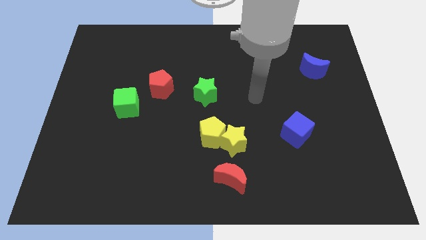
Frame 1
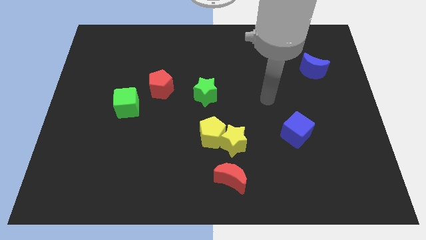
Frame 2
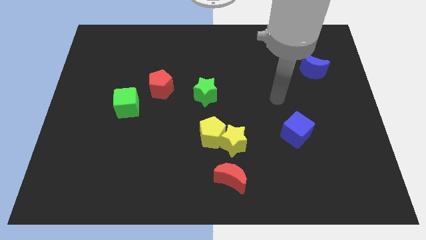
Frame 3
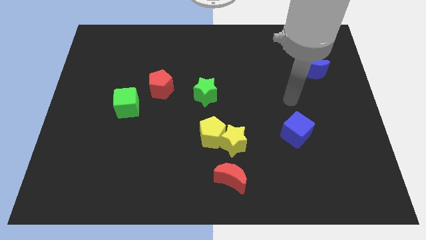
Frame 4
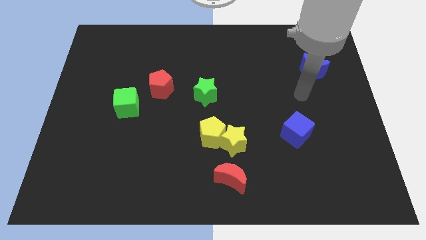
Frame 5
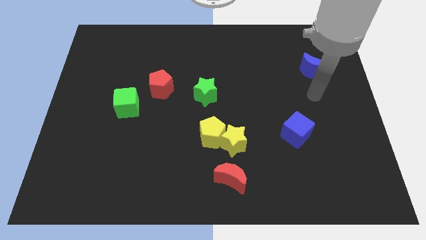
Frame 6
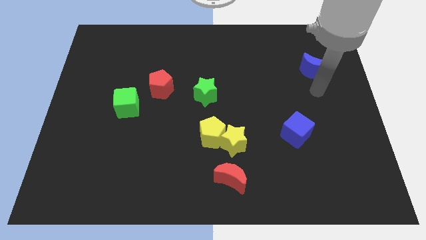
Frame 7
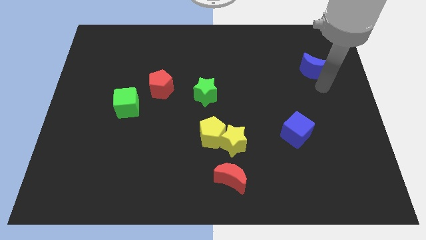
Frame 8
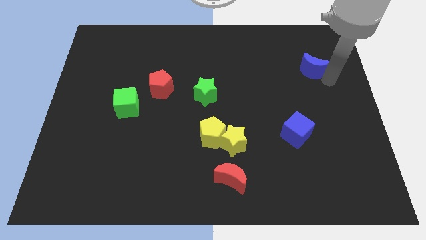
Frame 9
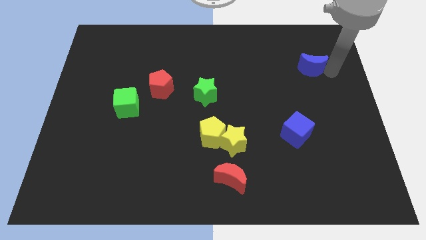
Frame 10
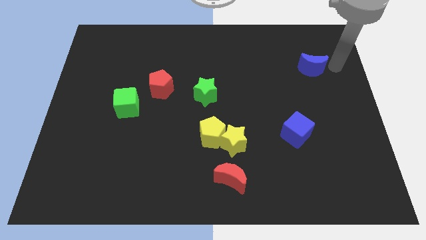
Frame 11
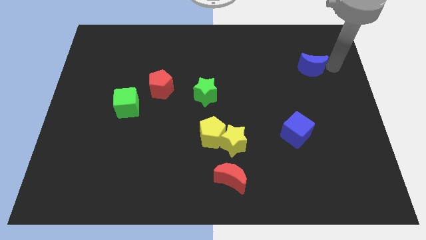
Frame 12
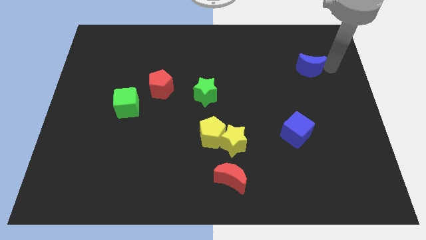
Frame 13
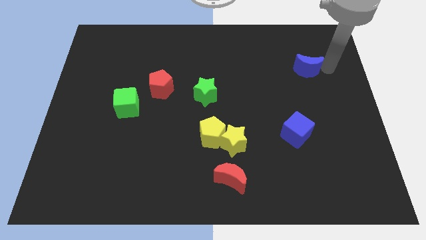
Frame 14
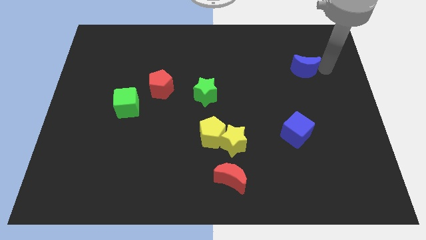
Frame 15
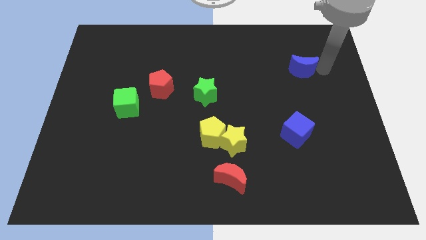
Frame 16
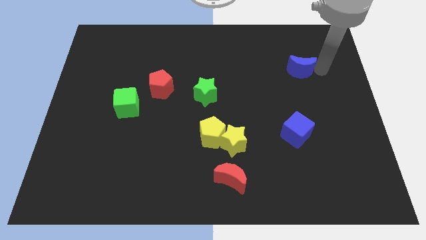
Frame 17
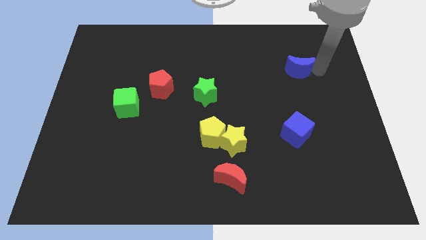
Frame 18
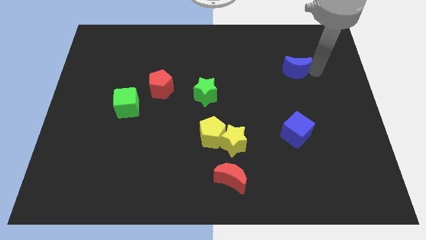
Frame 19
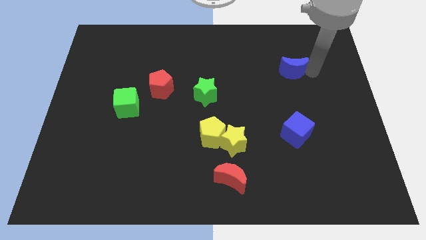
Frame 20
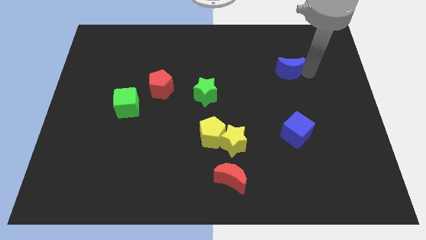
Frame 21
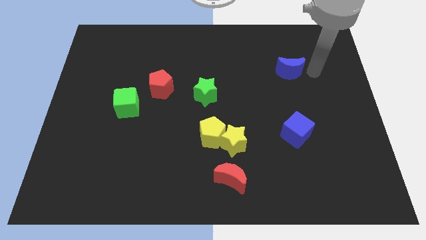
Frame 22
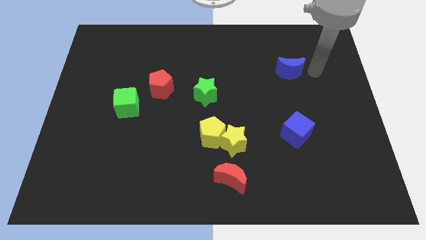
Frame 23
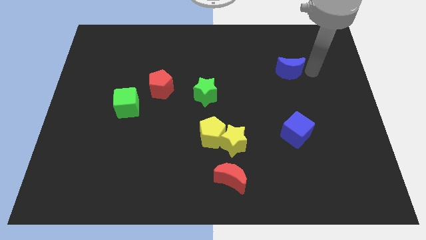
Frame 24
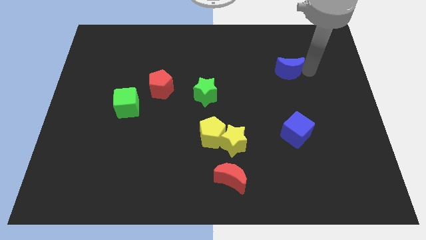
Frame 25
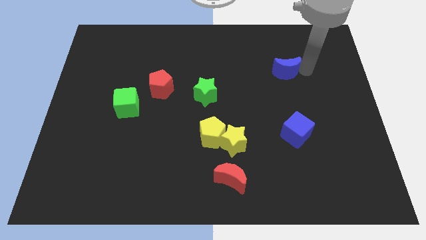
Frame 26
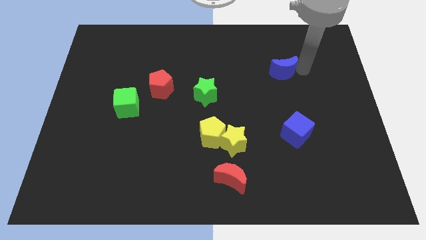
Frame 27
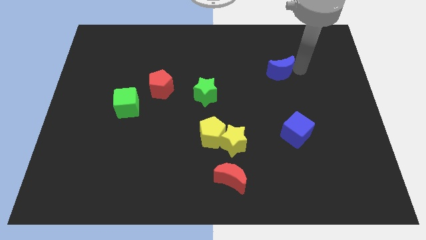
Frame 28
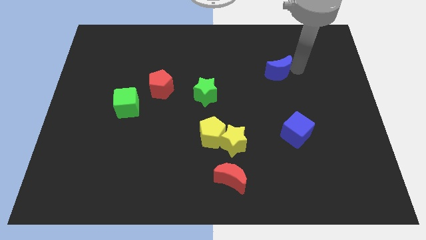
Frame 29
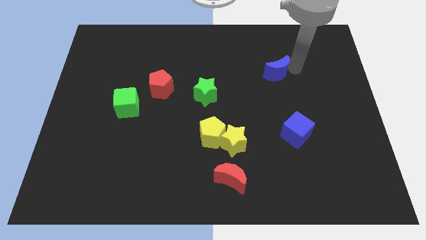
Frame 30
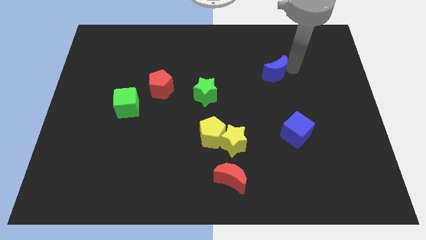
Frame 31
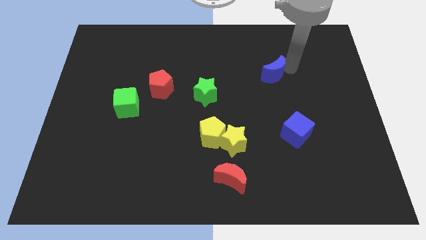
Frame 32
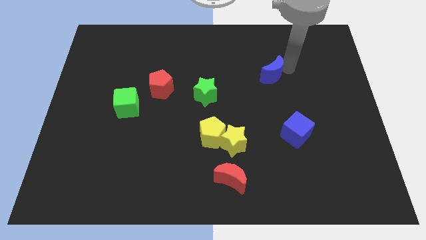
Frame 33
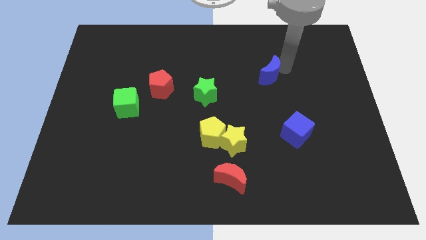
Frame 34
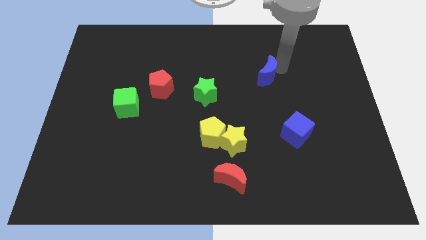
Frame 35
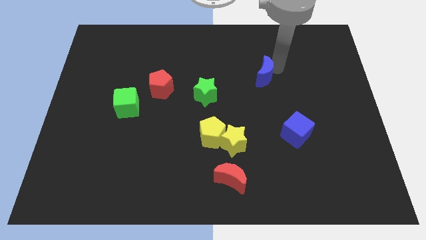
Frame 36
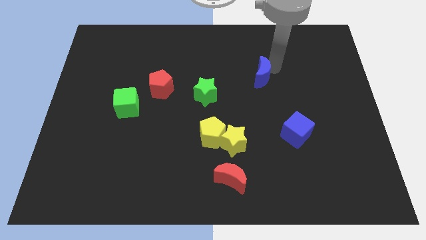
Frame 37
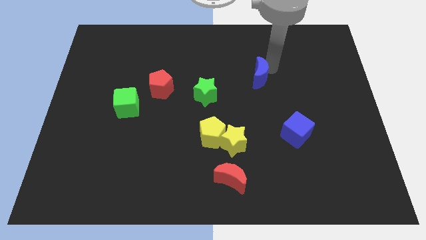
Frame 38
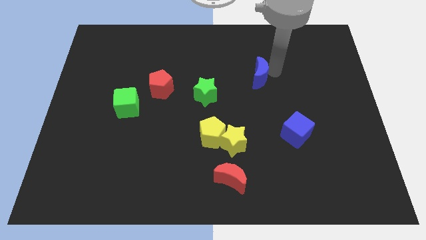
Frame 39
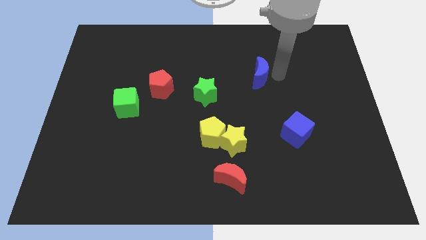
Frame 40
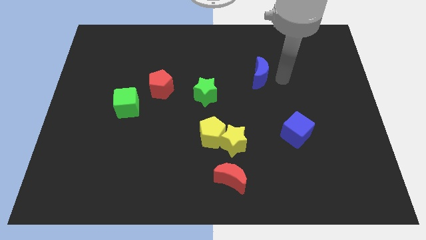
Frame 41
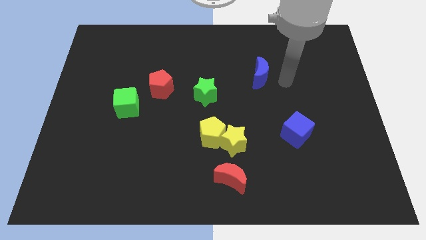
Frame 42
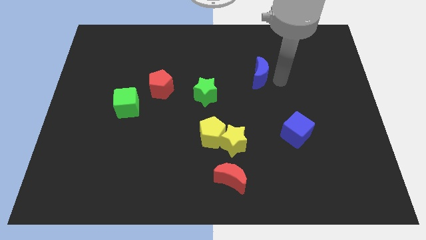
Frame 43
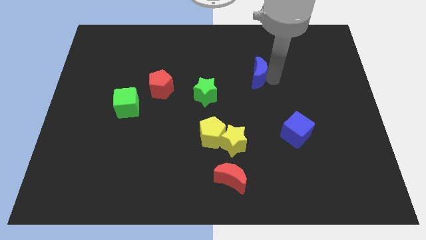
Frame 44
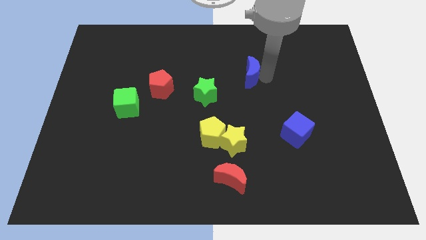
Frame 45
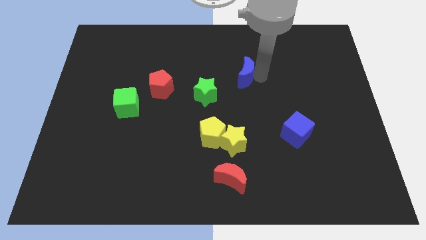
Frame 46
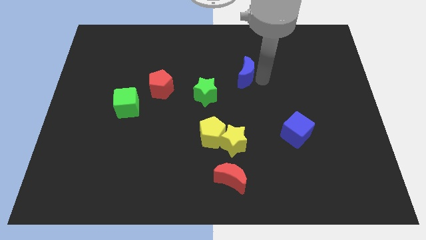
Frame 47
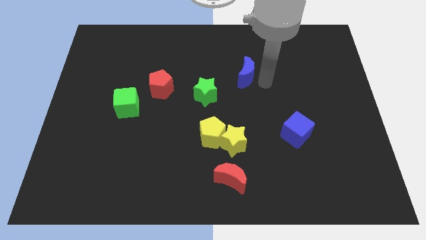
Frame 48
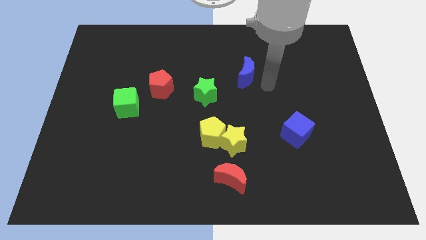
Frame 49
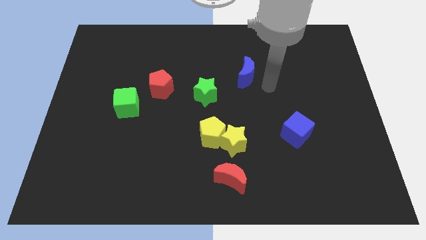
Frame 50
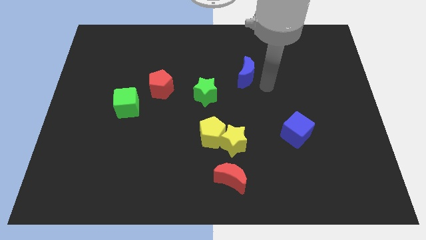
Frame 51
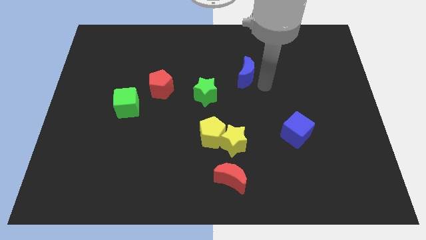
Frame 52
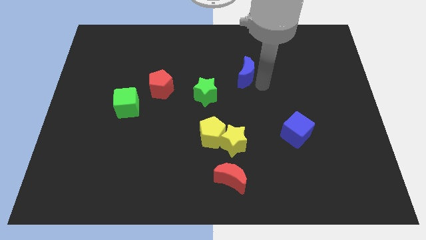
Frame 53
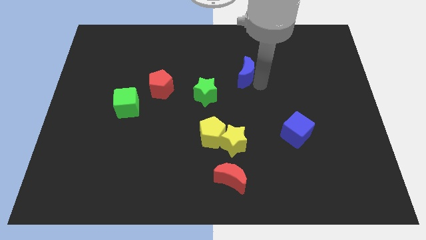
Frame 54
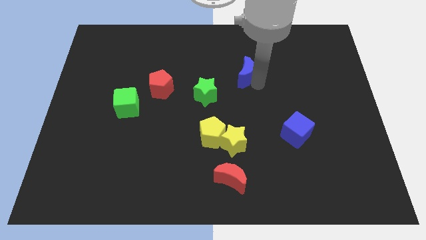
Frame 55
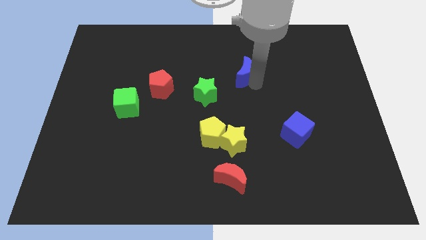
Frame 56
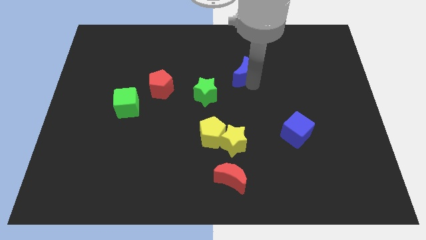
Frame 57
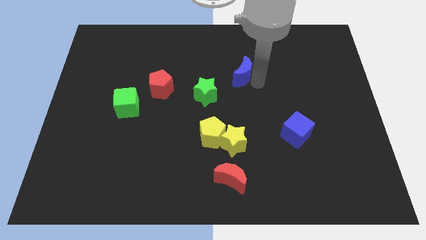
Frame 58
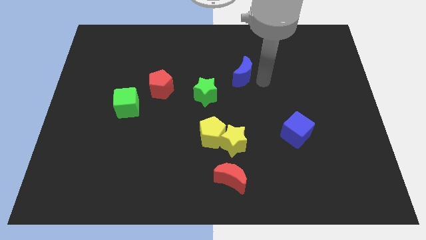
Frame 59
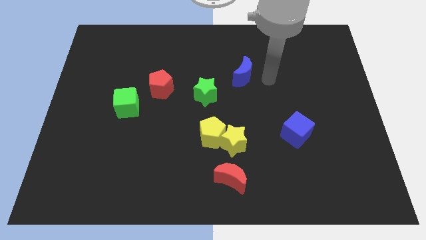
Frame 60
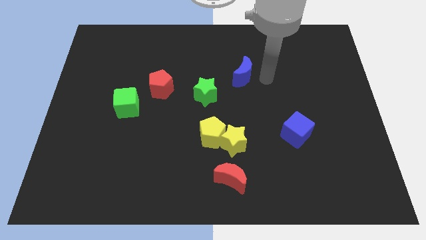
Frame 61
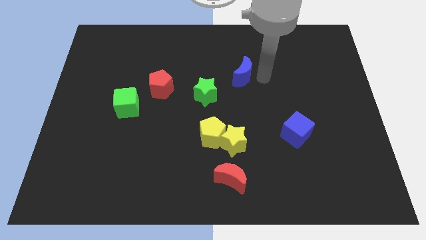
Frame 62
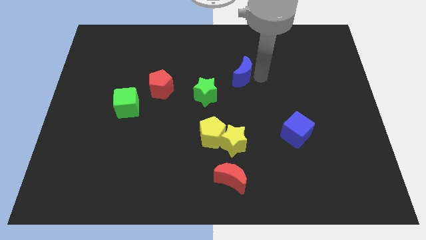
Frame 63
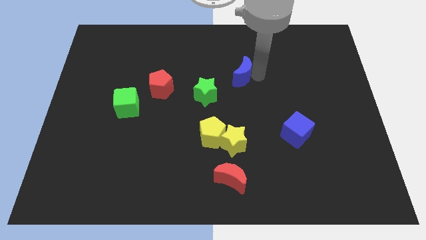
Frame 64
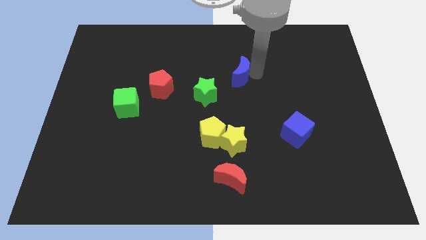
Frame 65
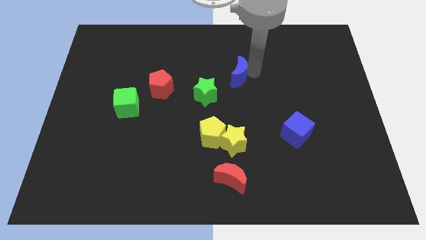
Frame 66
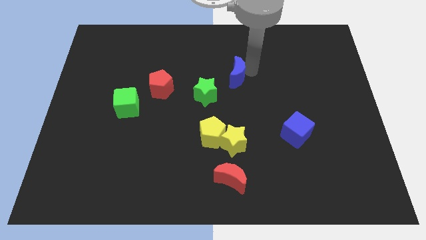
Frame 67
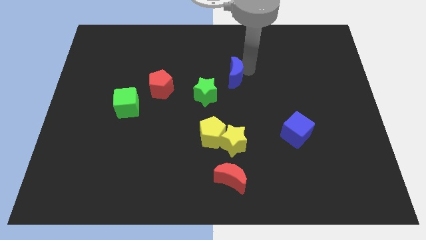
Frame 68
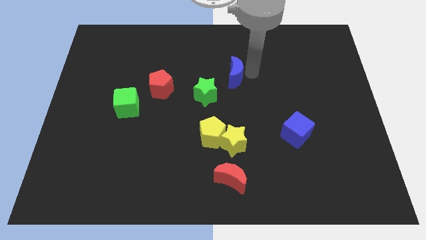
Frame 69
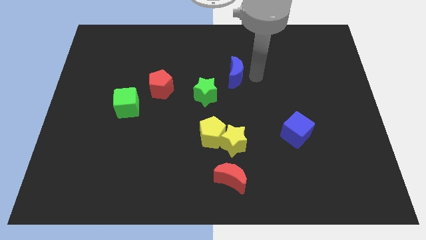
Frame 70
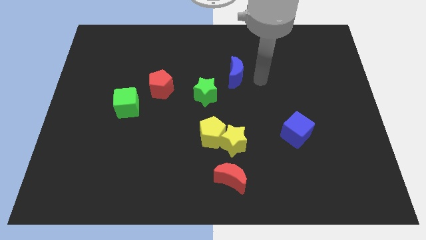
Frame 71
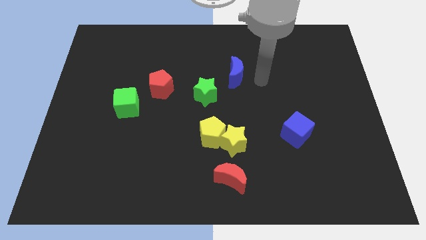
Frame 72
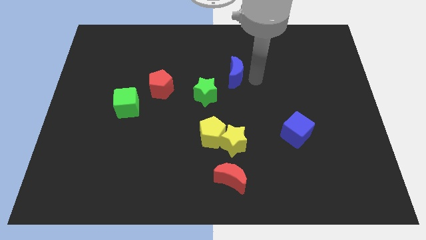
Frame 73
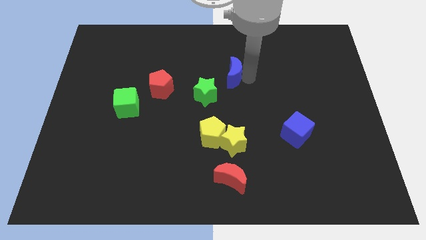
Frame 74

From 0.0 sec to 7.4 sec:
move the blue moon left

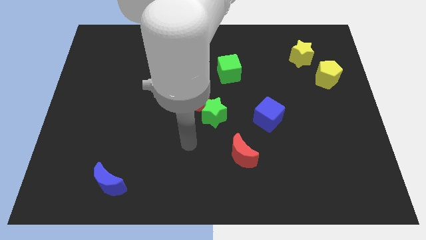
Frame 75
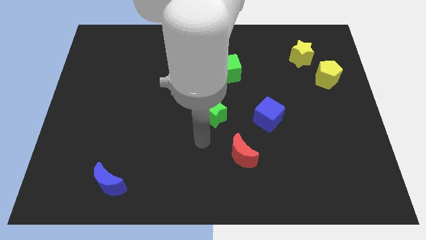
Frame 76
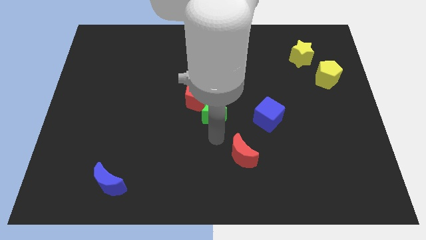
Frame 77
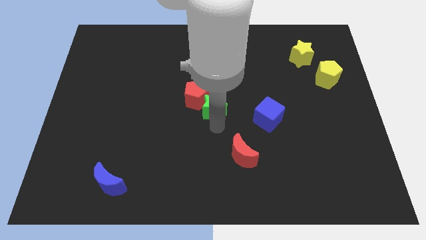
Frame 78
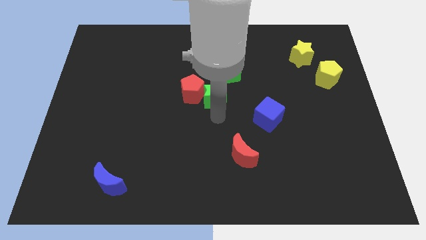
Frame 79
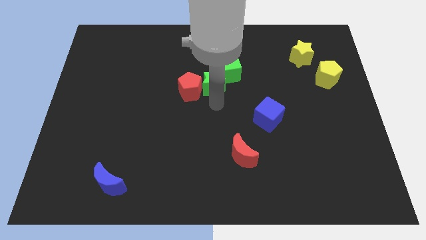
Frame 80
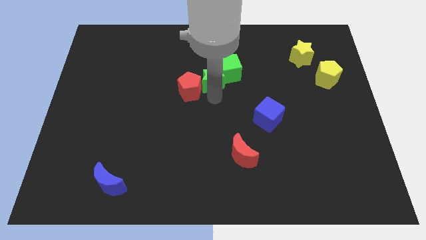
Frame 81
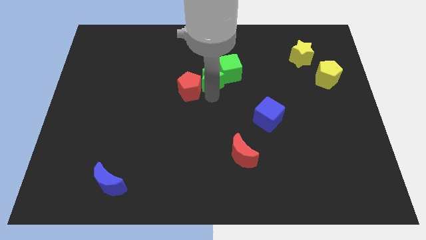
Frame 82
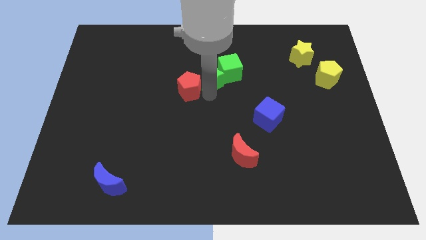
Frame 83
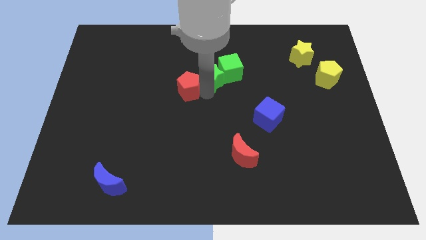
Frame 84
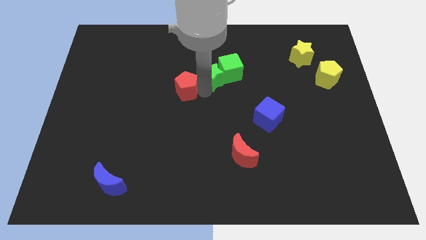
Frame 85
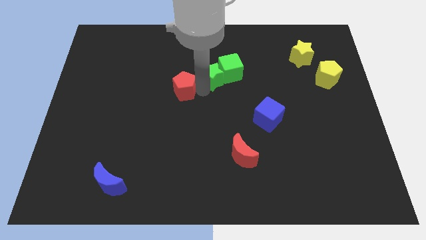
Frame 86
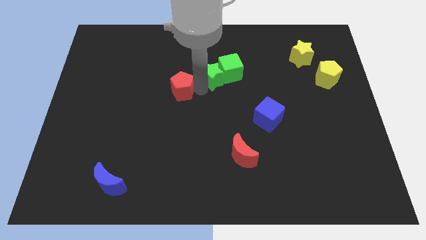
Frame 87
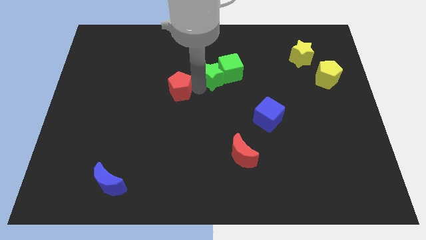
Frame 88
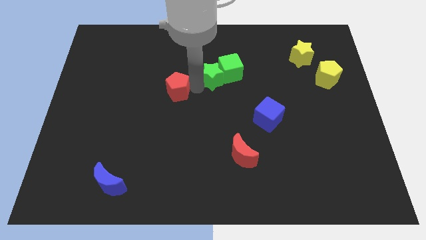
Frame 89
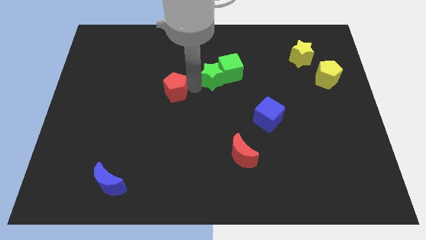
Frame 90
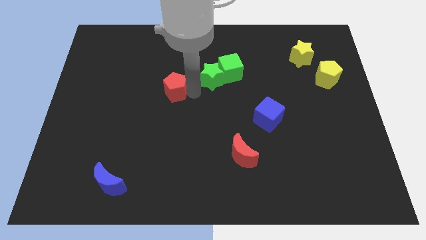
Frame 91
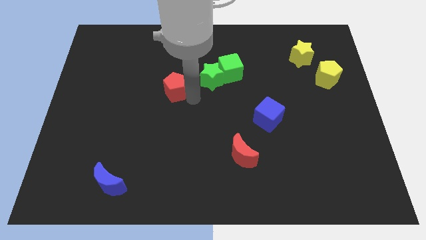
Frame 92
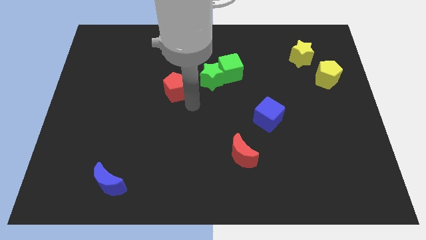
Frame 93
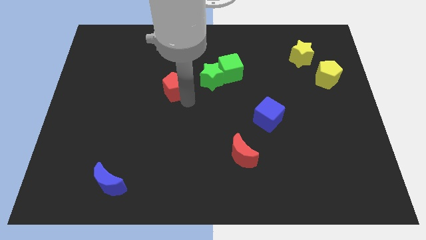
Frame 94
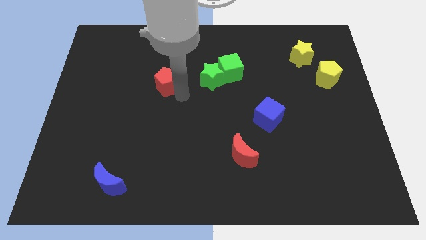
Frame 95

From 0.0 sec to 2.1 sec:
slide the red pentagon up and then left a bit
